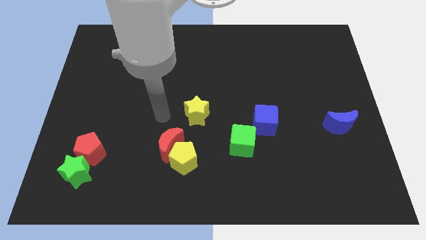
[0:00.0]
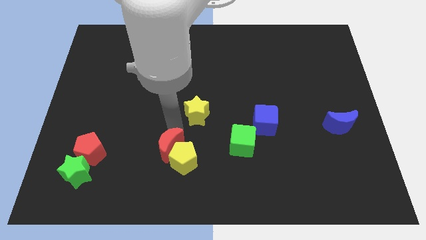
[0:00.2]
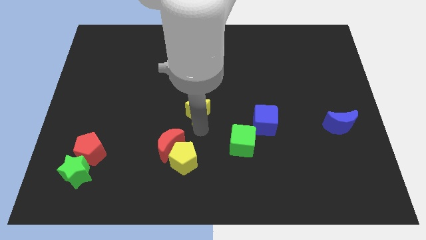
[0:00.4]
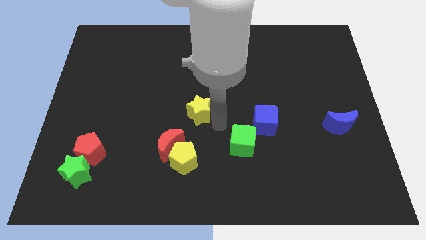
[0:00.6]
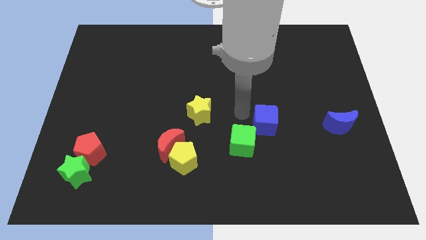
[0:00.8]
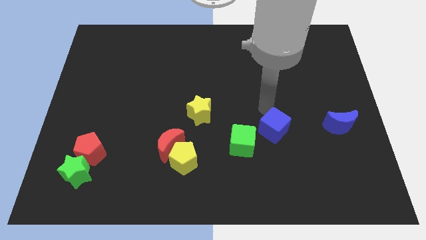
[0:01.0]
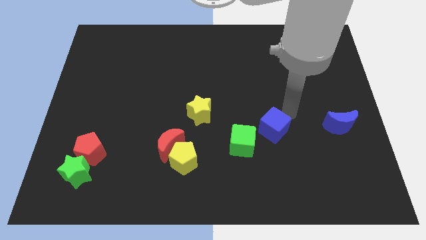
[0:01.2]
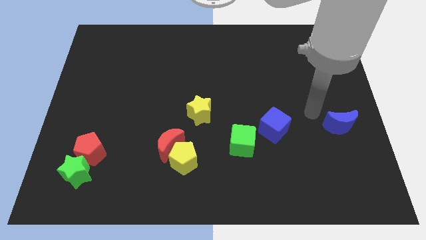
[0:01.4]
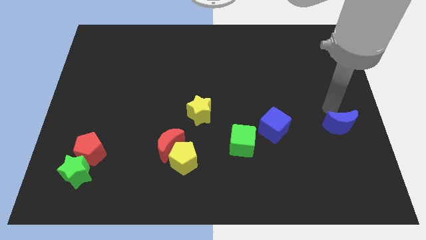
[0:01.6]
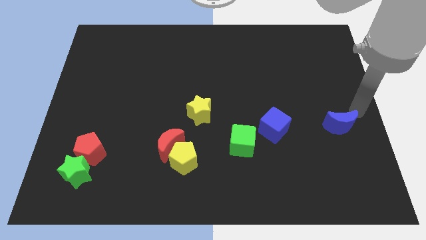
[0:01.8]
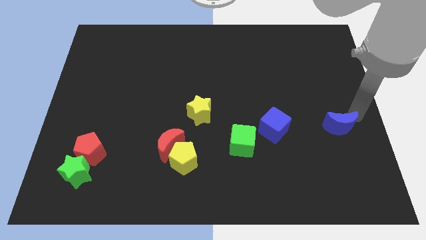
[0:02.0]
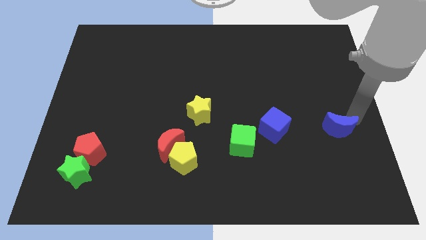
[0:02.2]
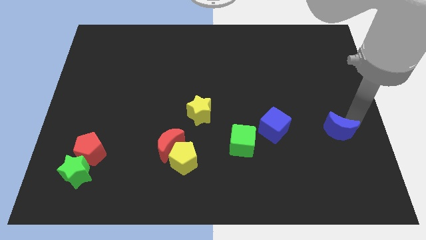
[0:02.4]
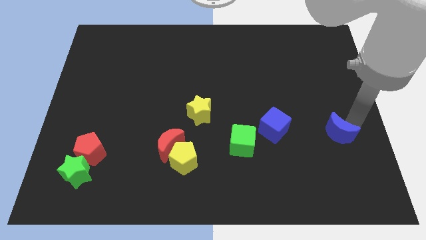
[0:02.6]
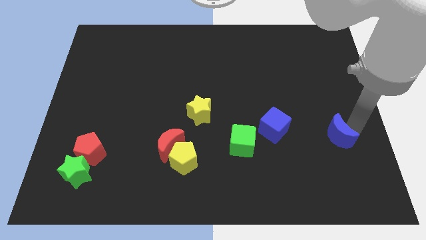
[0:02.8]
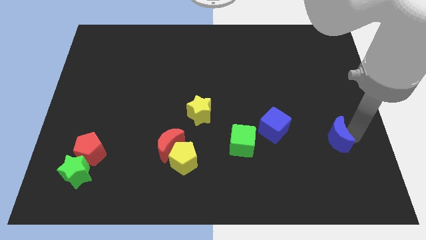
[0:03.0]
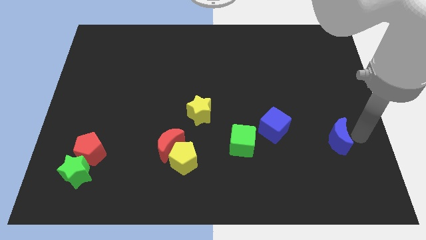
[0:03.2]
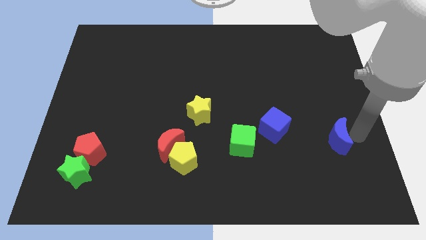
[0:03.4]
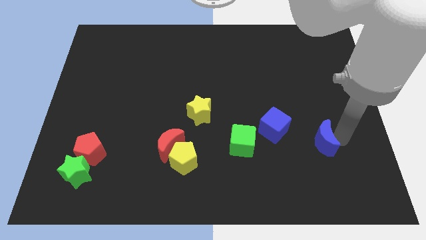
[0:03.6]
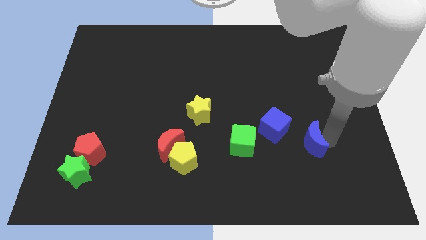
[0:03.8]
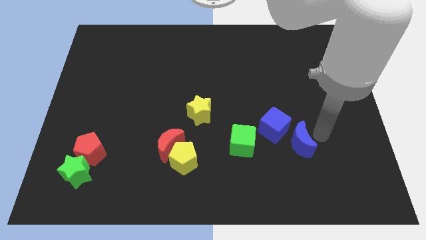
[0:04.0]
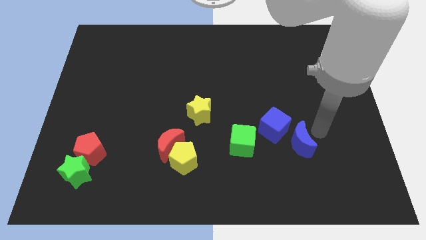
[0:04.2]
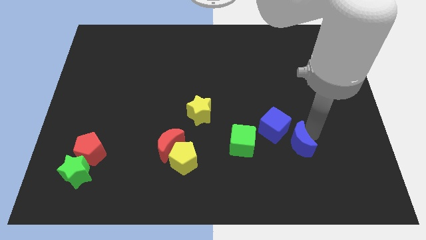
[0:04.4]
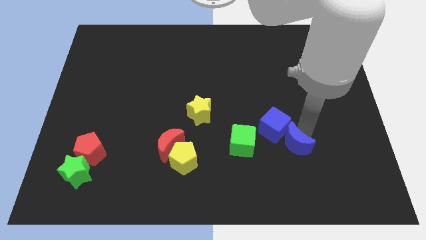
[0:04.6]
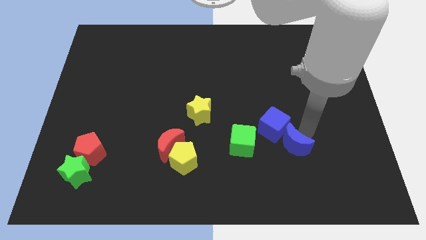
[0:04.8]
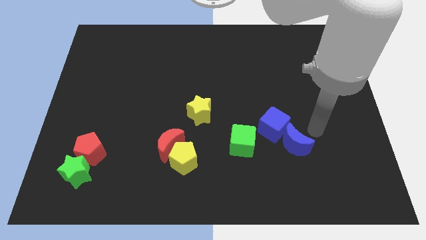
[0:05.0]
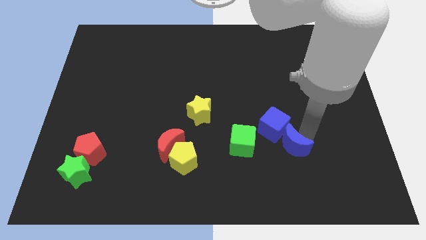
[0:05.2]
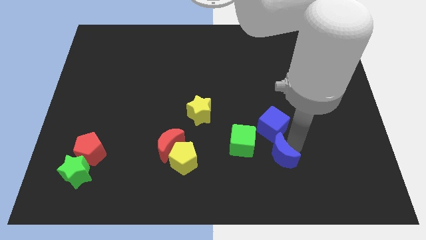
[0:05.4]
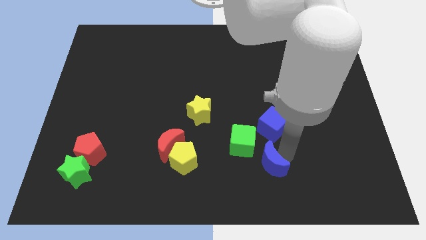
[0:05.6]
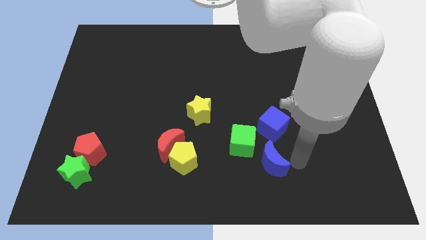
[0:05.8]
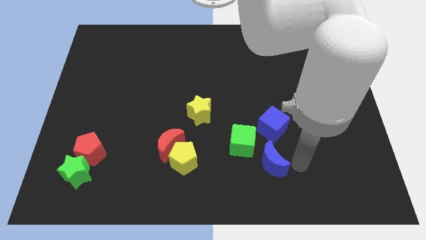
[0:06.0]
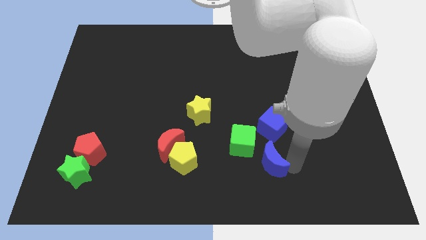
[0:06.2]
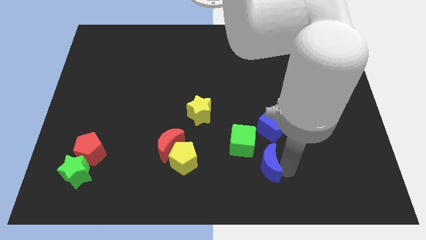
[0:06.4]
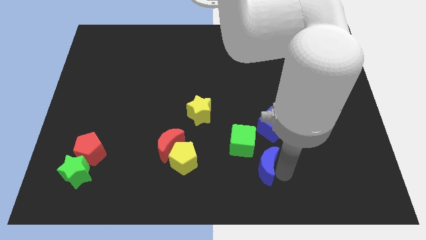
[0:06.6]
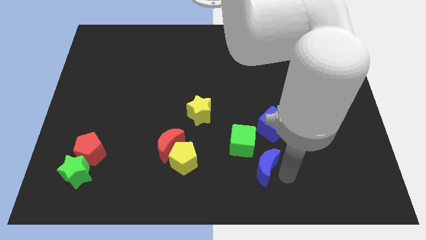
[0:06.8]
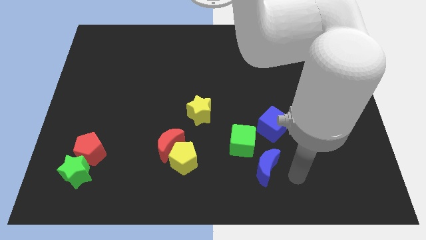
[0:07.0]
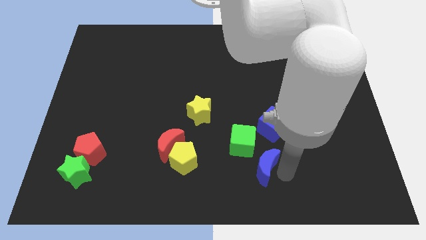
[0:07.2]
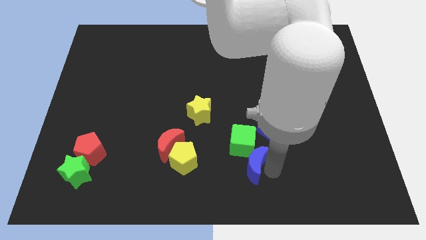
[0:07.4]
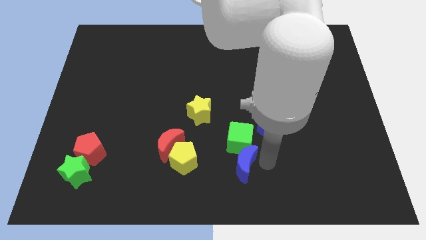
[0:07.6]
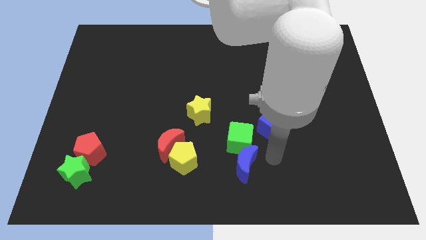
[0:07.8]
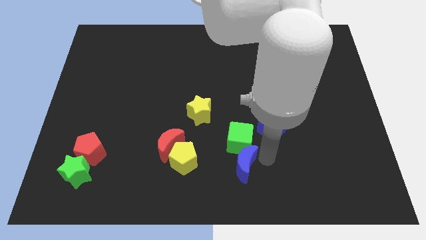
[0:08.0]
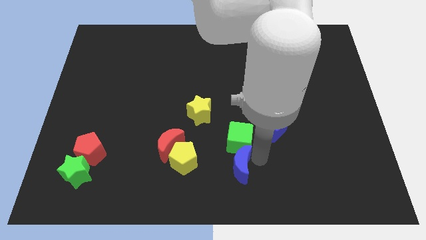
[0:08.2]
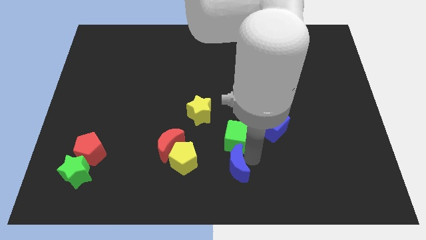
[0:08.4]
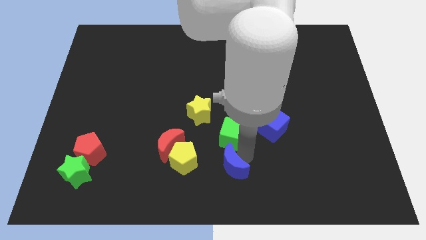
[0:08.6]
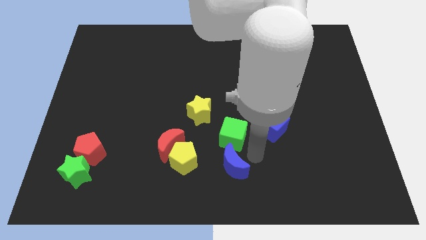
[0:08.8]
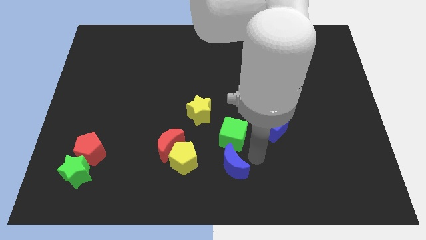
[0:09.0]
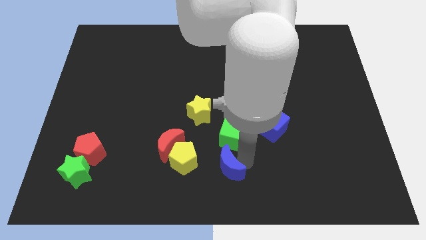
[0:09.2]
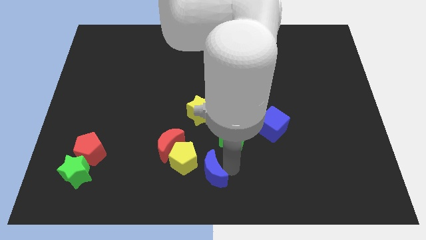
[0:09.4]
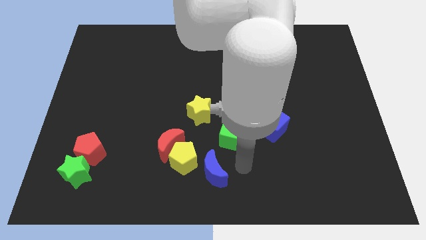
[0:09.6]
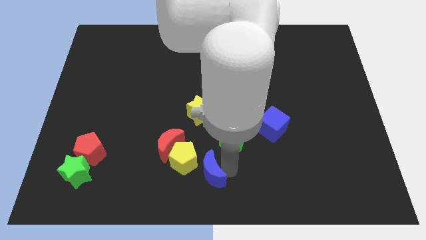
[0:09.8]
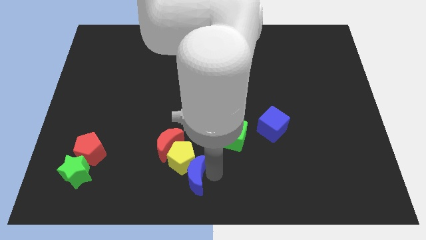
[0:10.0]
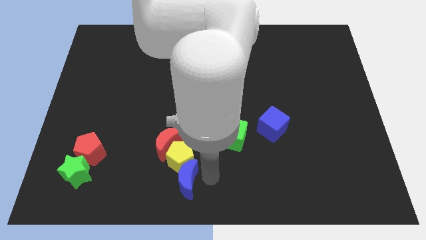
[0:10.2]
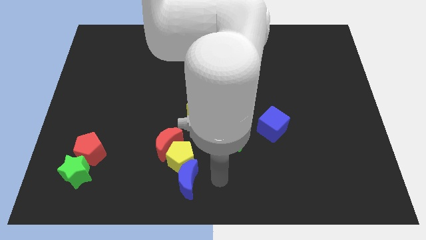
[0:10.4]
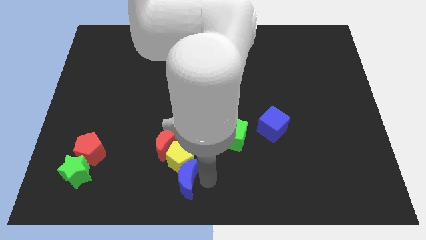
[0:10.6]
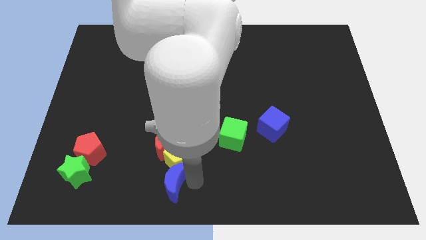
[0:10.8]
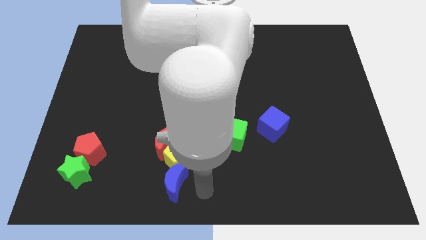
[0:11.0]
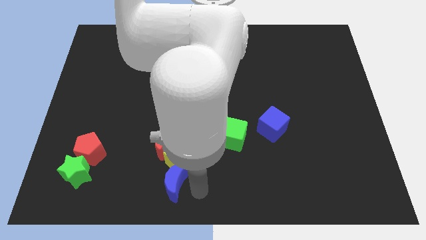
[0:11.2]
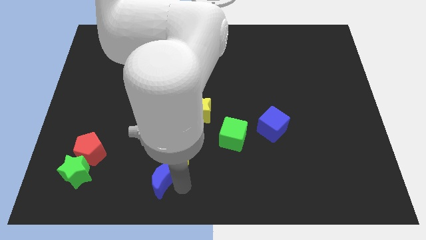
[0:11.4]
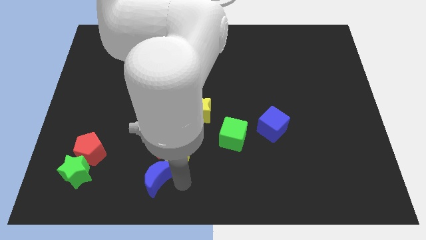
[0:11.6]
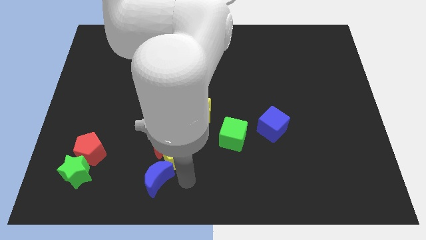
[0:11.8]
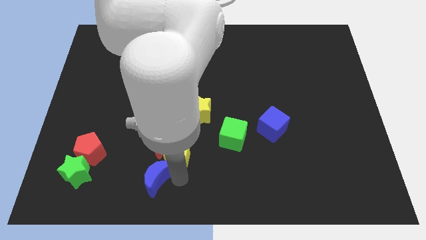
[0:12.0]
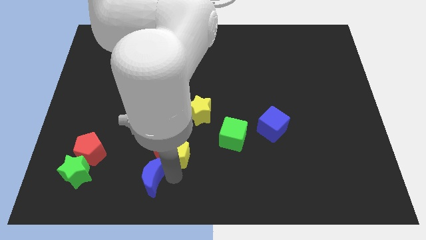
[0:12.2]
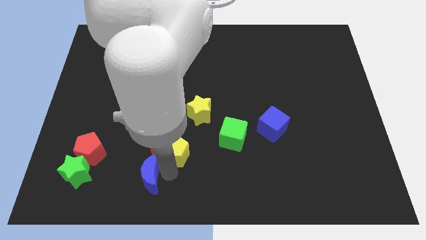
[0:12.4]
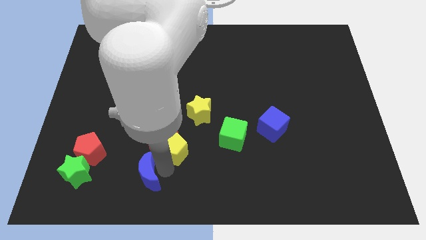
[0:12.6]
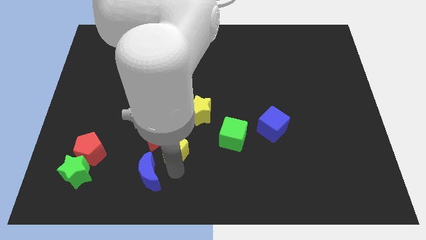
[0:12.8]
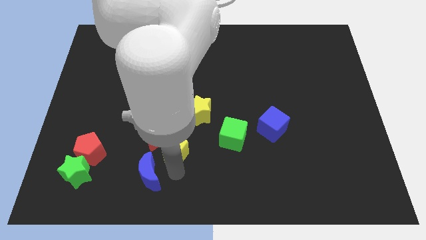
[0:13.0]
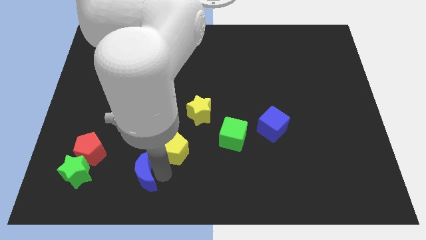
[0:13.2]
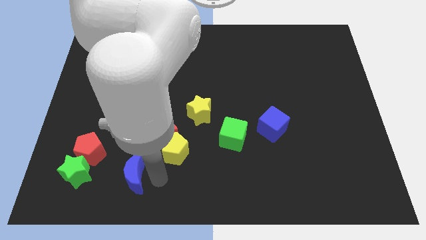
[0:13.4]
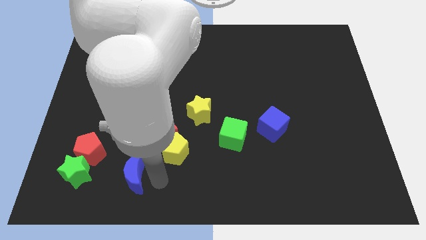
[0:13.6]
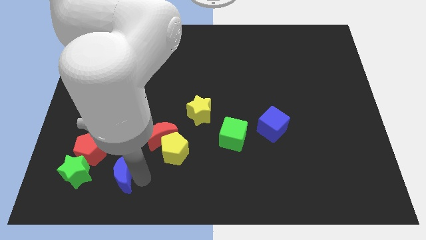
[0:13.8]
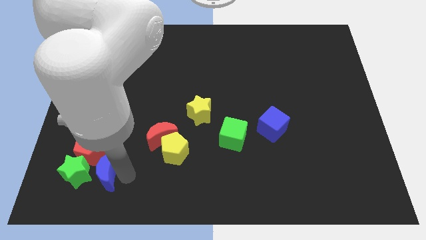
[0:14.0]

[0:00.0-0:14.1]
push the blue moon towards the green star
